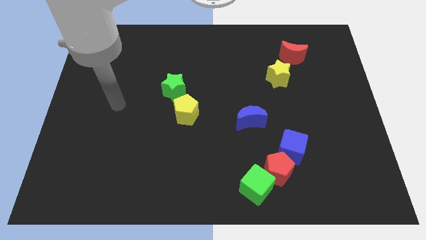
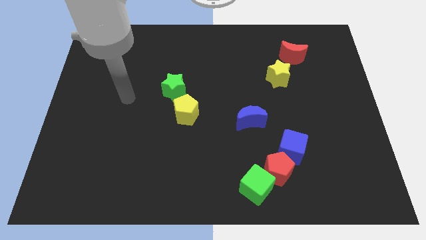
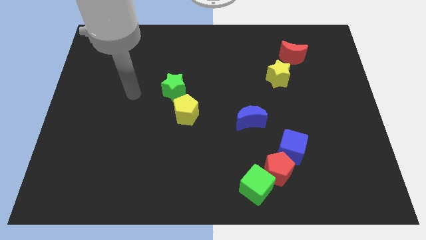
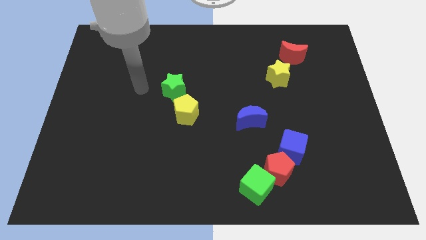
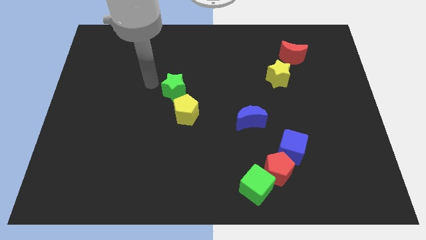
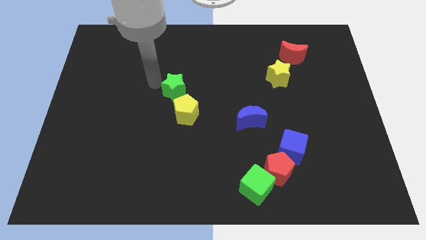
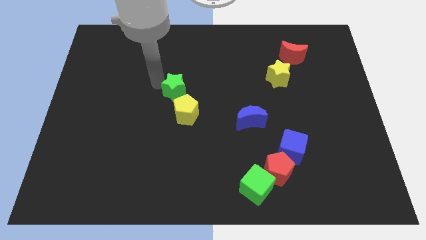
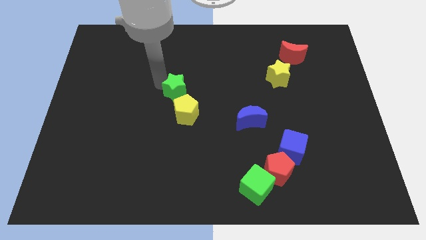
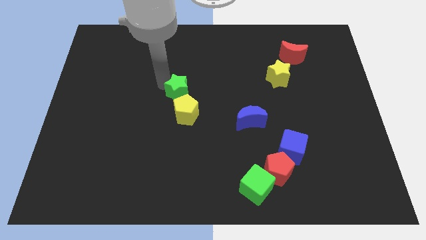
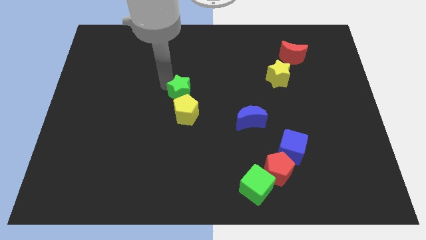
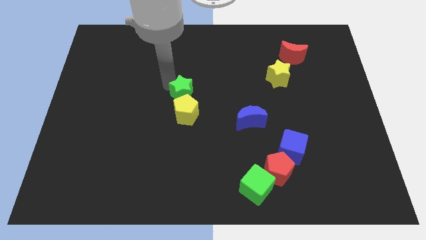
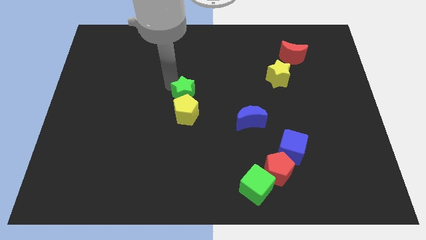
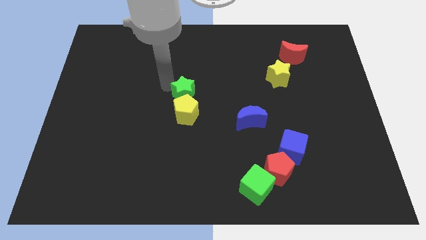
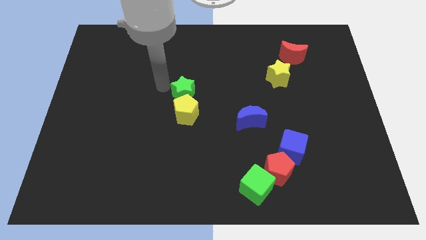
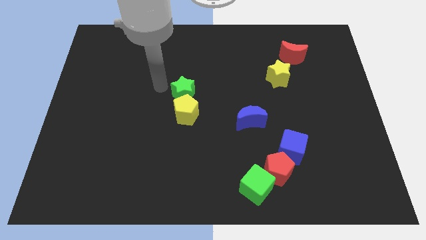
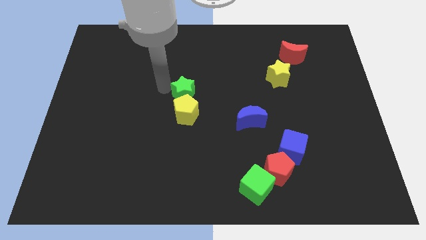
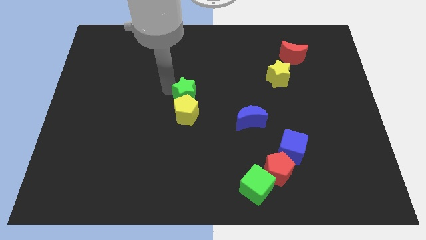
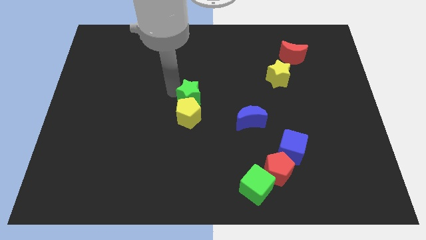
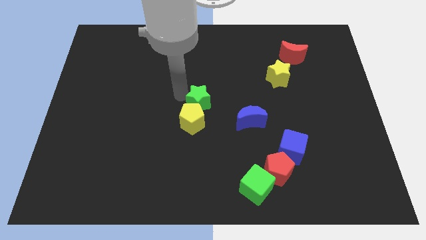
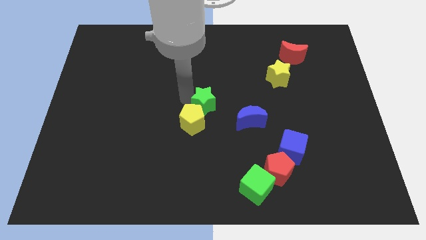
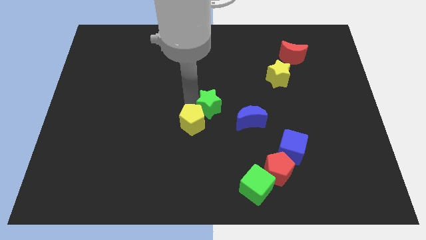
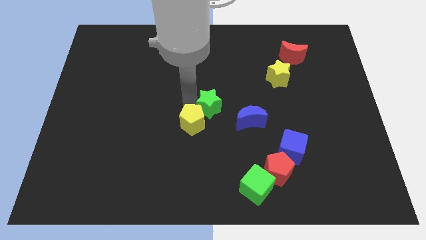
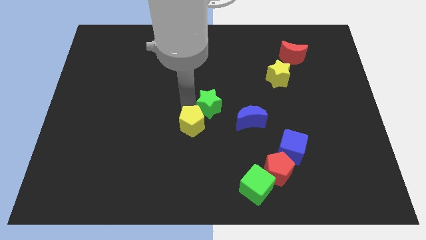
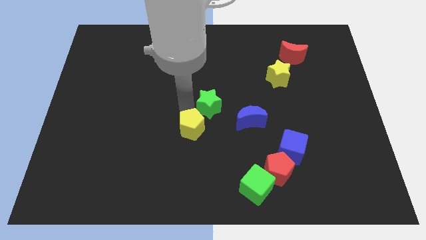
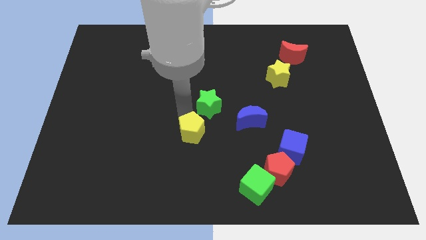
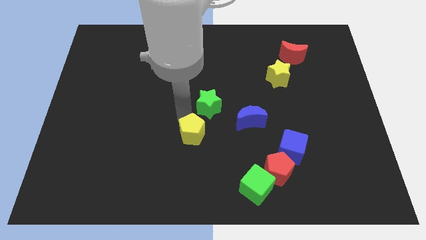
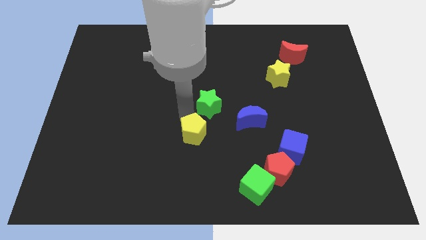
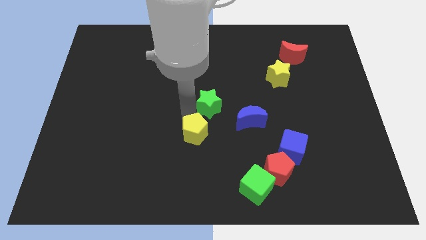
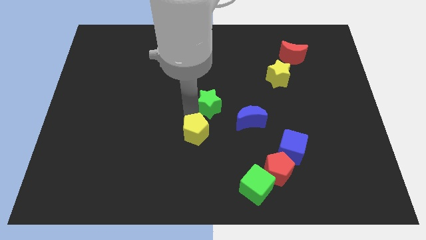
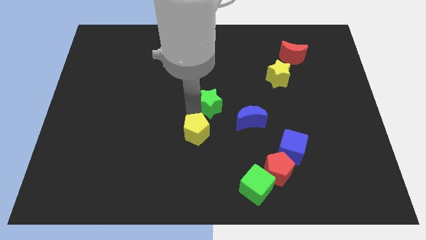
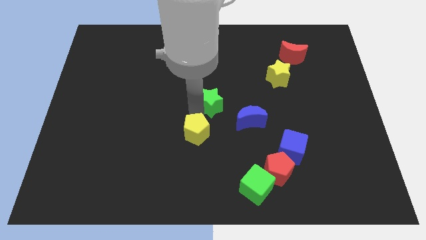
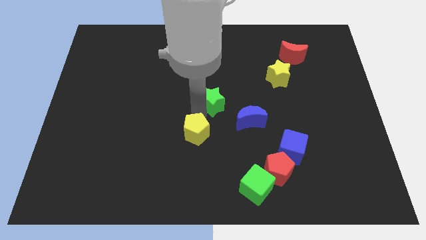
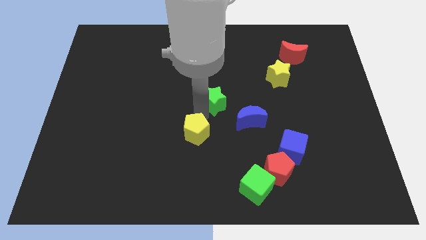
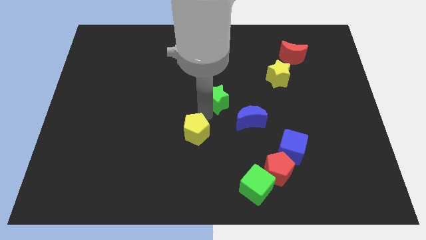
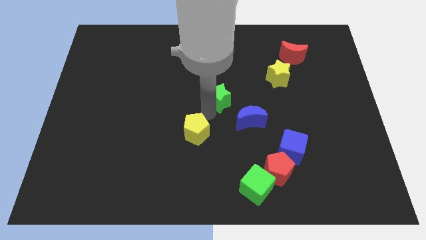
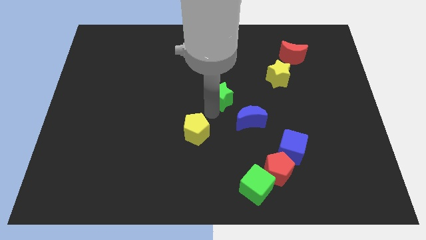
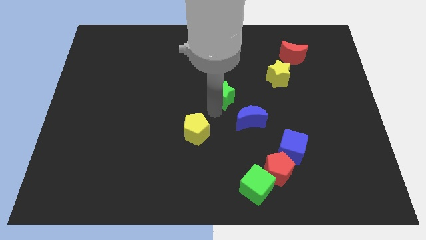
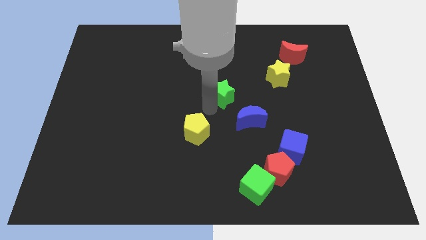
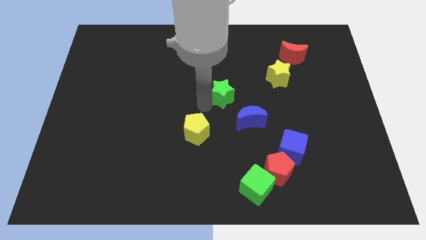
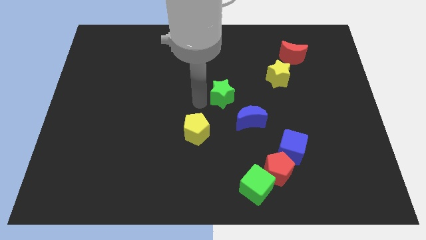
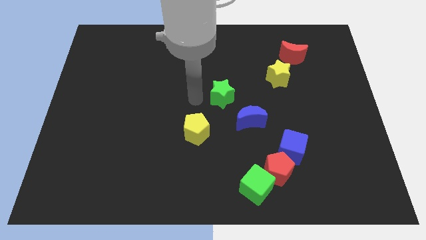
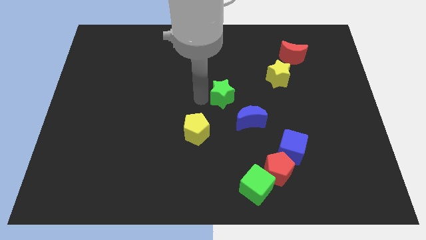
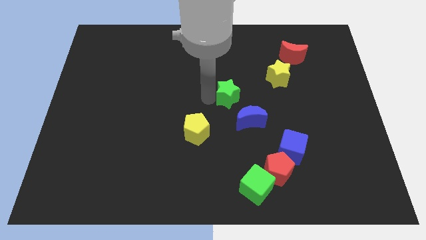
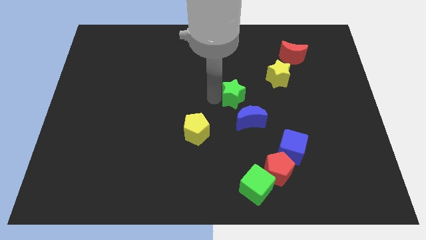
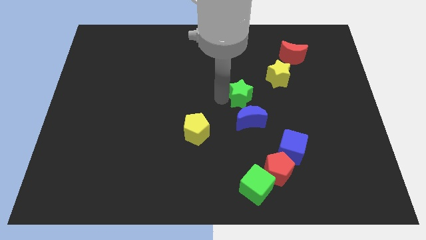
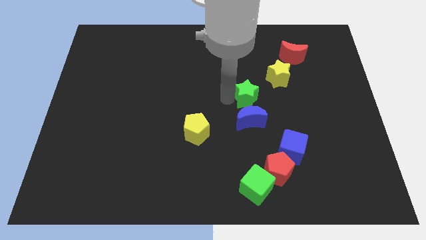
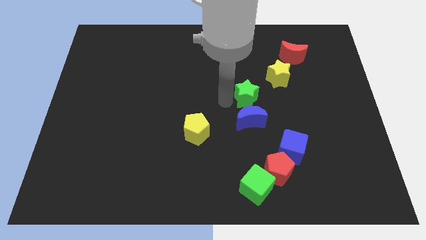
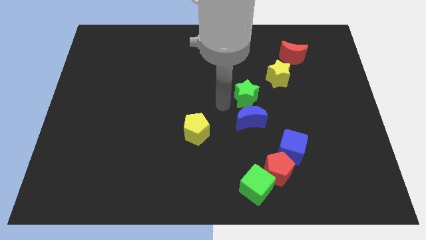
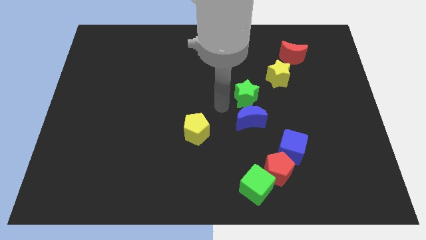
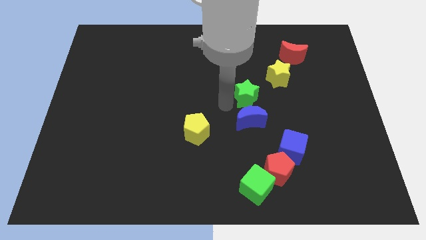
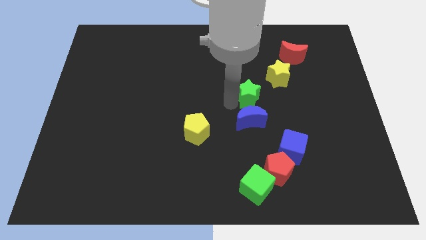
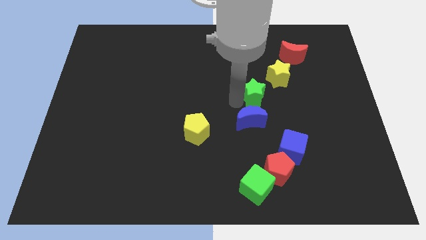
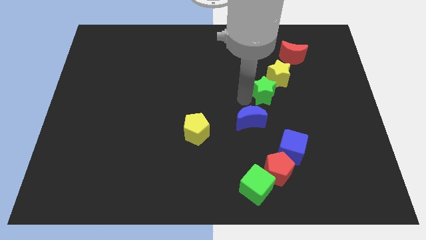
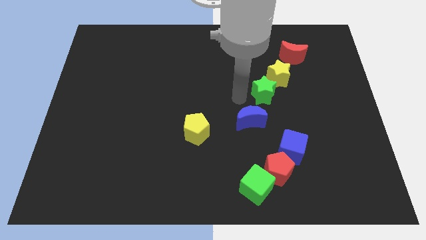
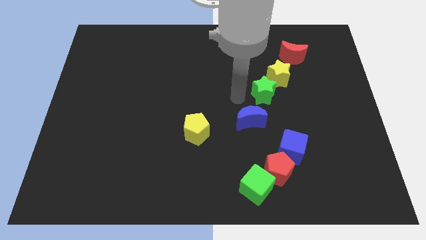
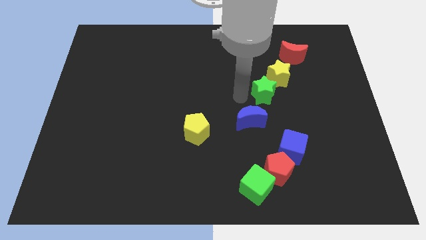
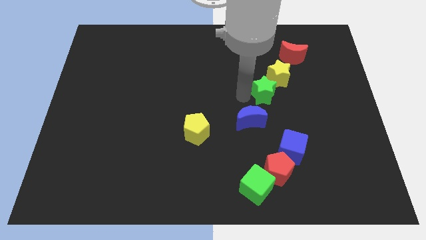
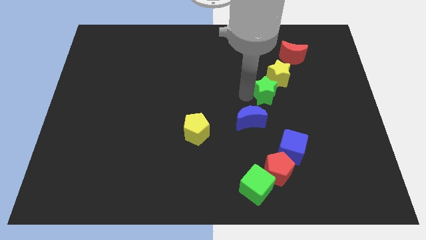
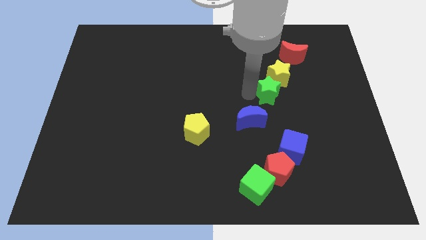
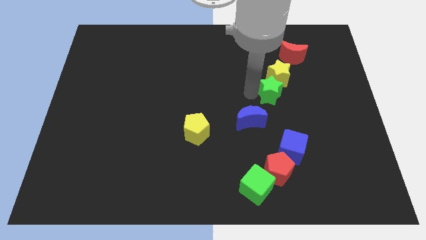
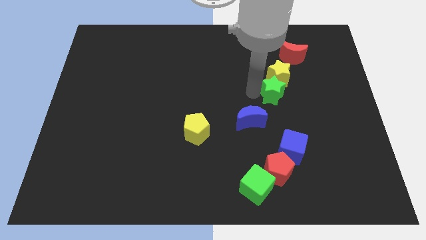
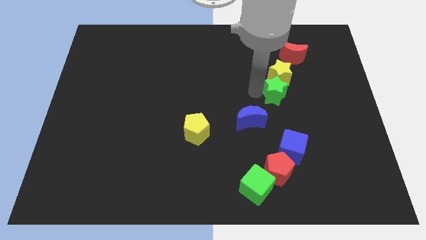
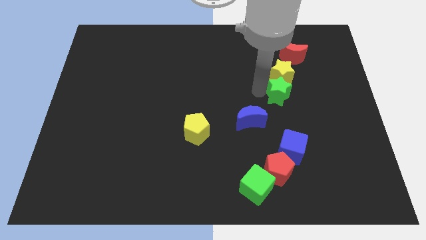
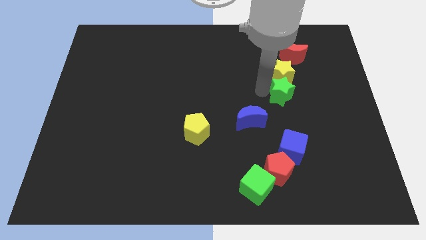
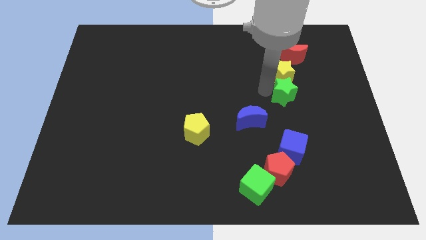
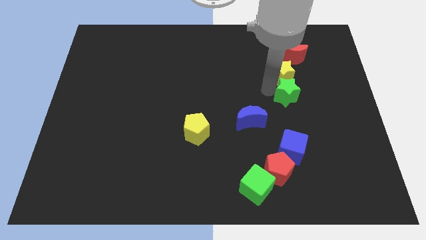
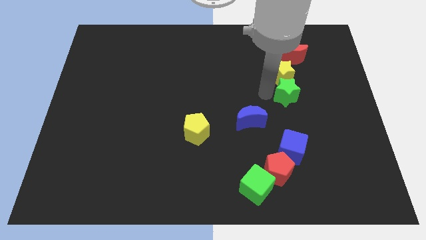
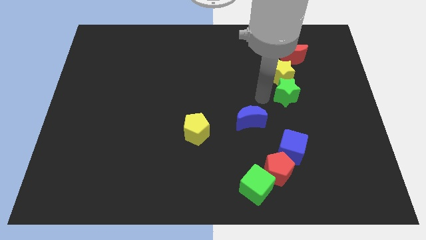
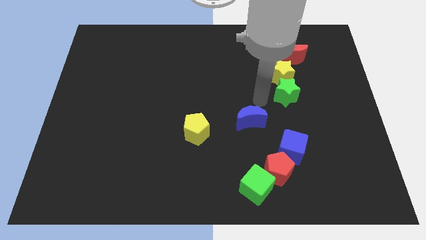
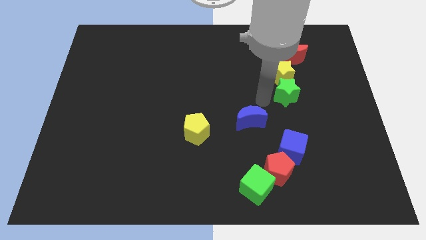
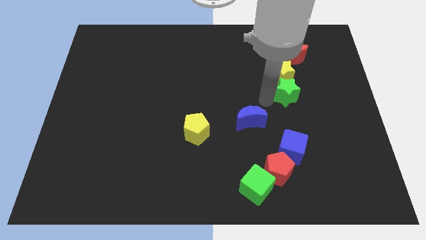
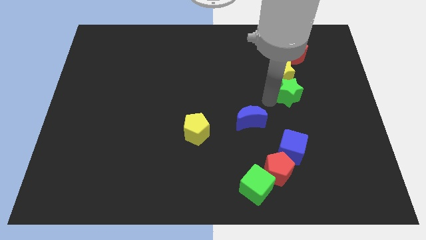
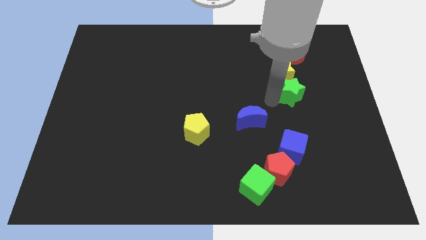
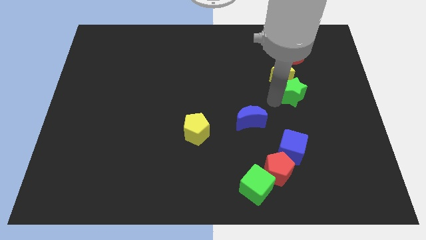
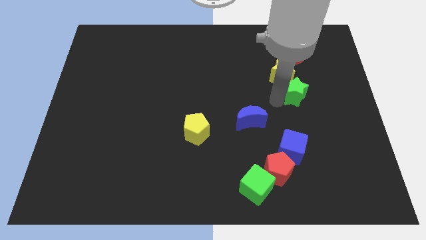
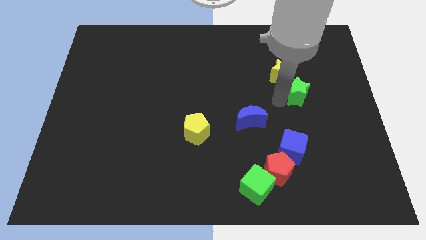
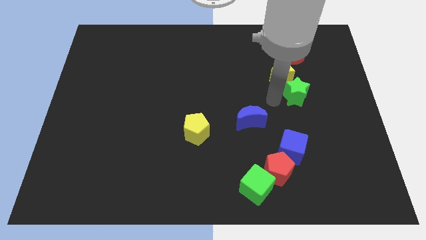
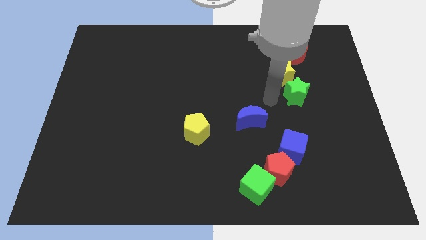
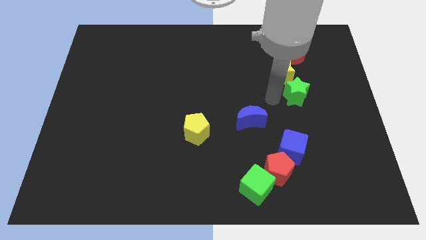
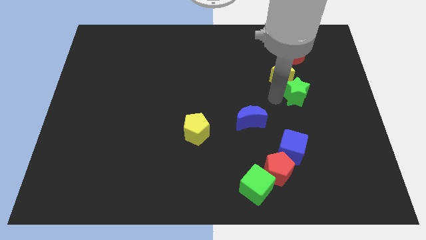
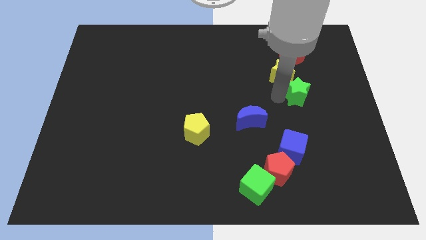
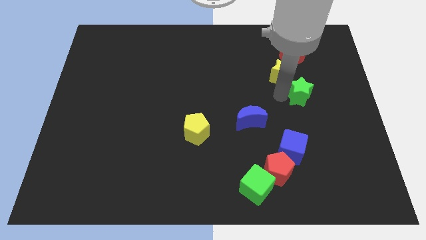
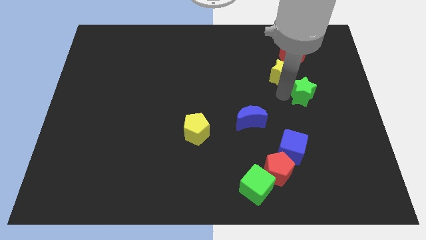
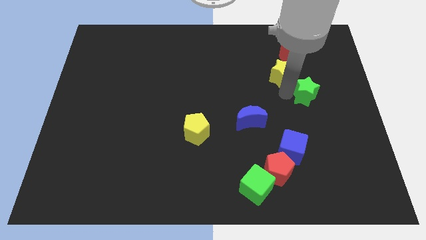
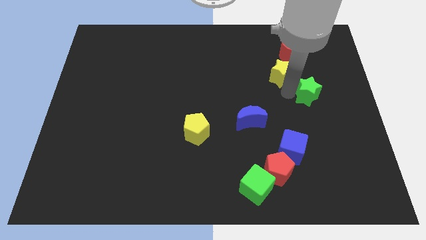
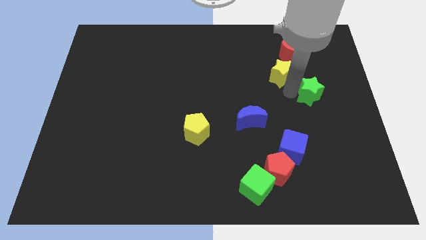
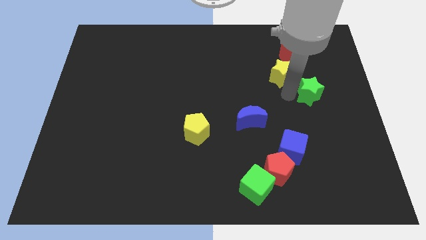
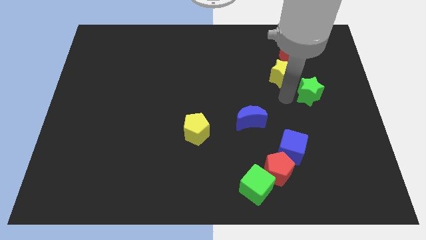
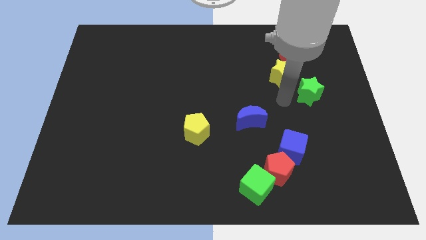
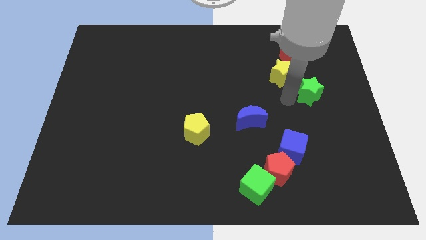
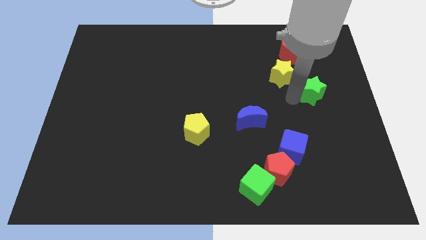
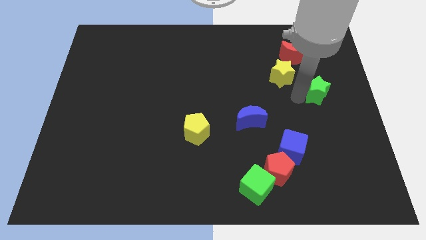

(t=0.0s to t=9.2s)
slide the green star to the right side
